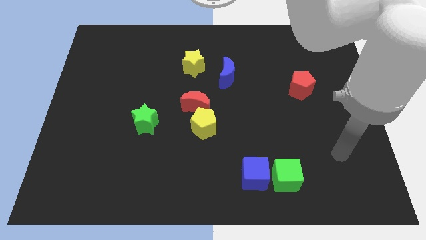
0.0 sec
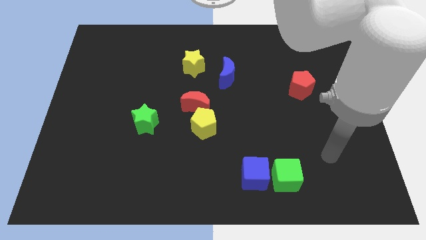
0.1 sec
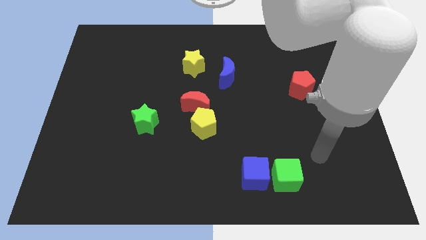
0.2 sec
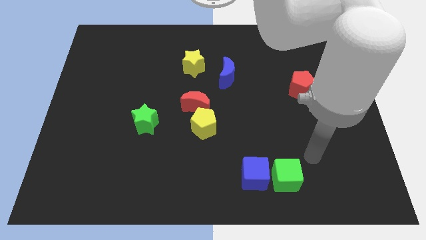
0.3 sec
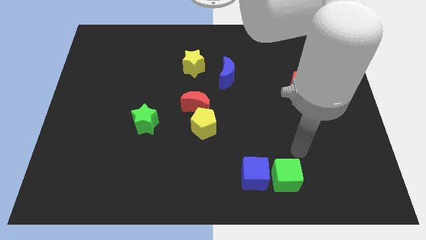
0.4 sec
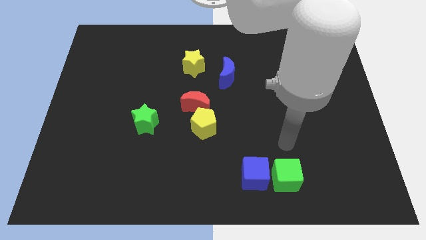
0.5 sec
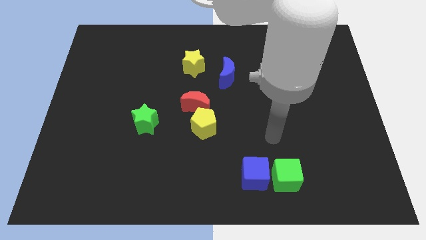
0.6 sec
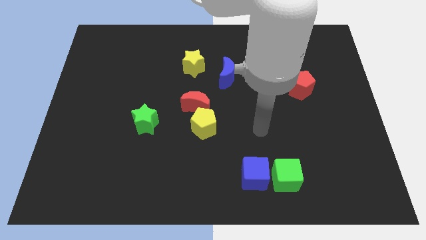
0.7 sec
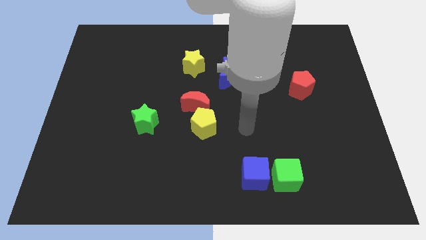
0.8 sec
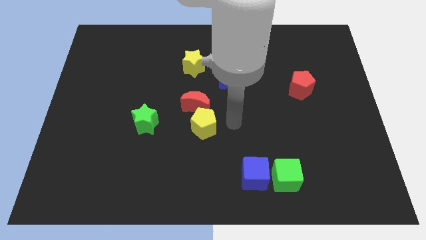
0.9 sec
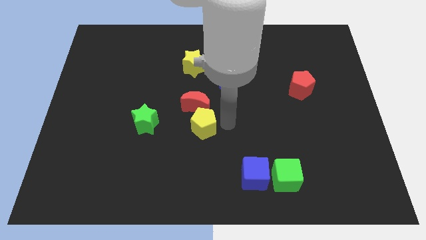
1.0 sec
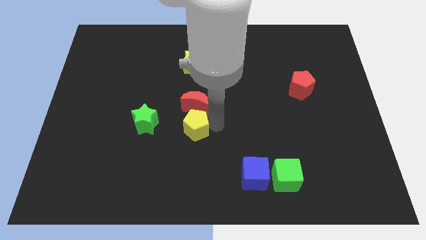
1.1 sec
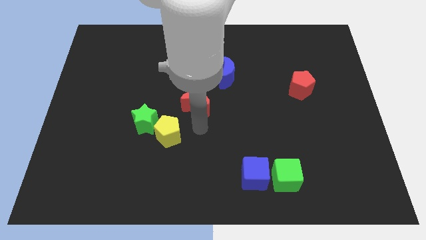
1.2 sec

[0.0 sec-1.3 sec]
pull the red moon apart from the yellow pentagon

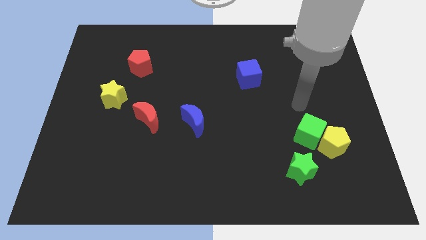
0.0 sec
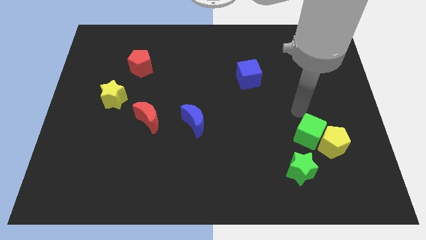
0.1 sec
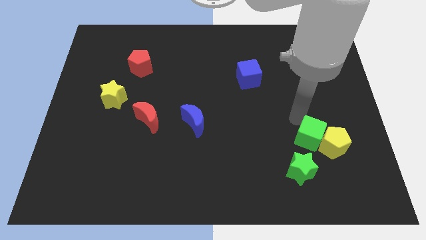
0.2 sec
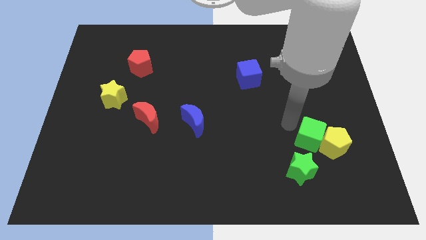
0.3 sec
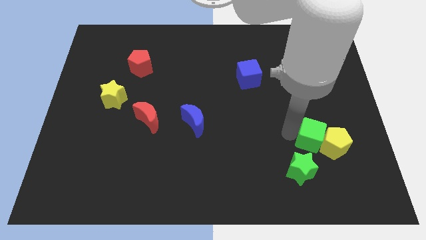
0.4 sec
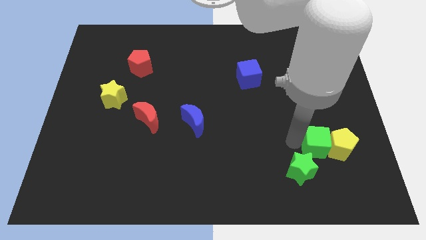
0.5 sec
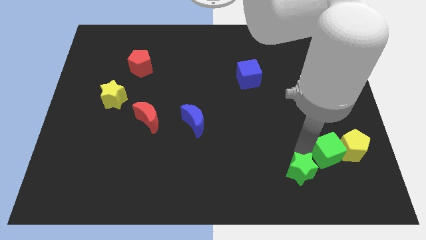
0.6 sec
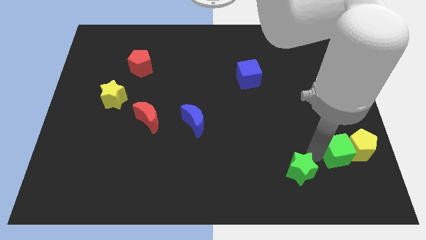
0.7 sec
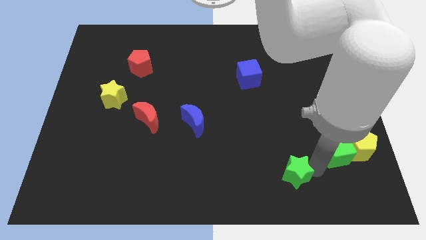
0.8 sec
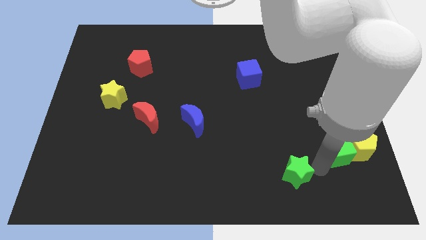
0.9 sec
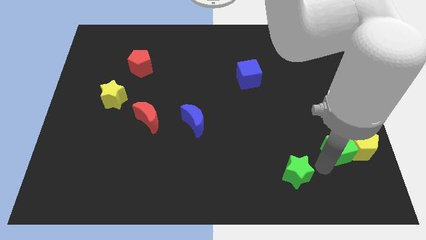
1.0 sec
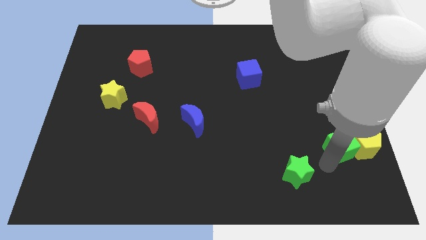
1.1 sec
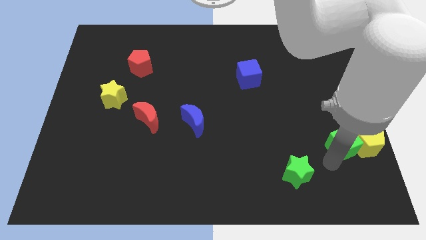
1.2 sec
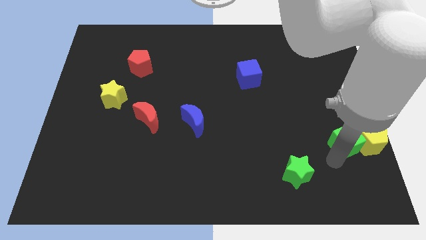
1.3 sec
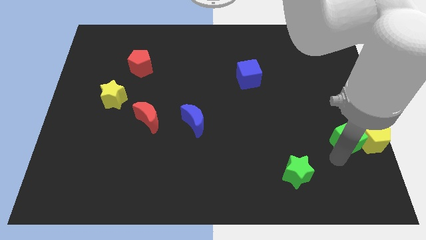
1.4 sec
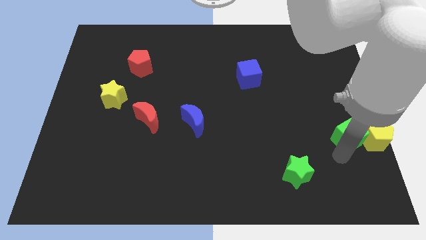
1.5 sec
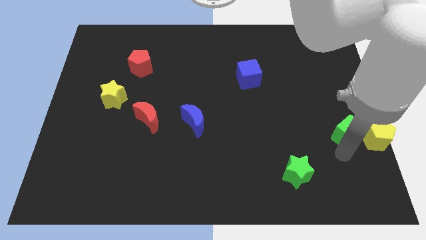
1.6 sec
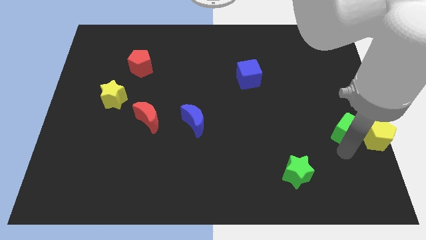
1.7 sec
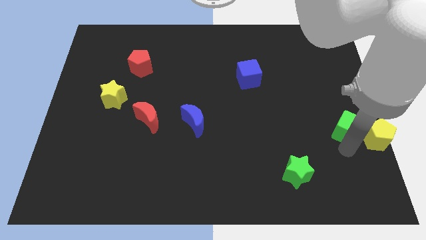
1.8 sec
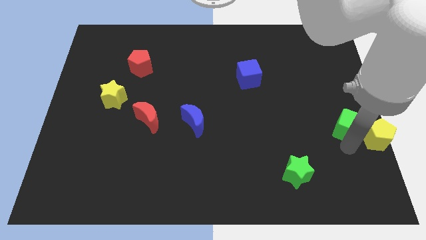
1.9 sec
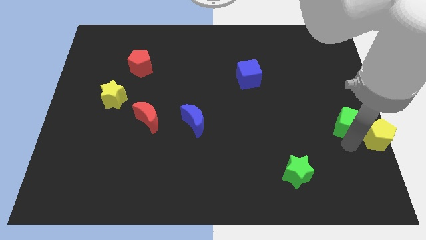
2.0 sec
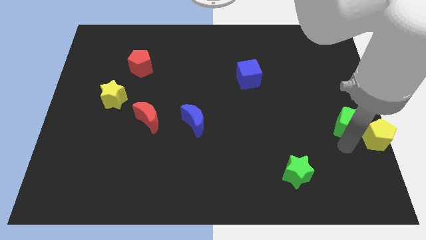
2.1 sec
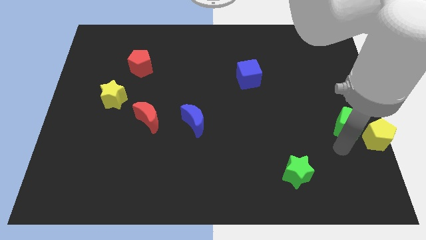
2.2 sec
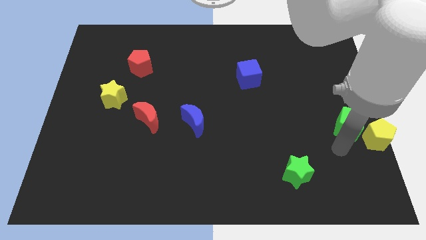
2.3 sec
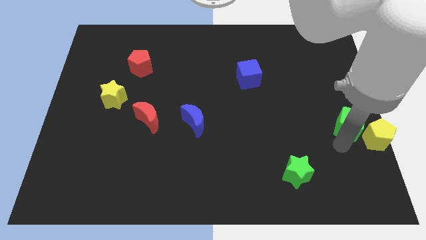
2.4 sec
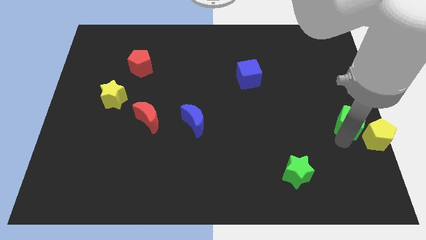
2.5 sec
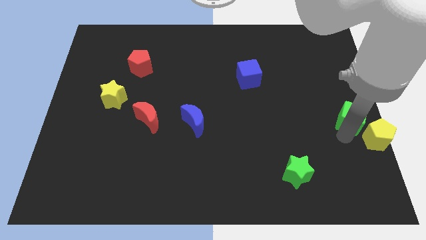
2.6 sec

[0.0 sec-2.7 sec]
move the green cube away from the yellow pentagon and green star

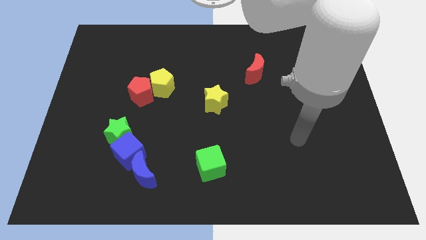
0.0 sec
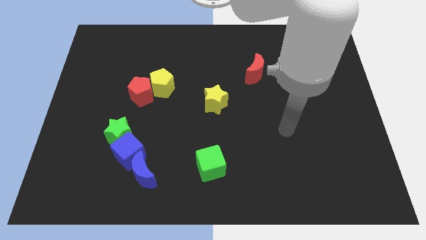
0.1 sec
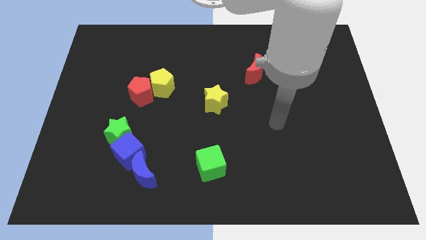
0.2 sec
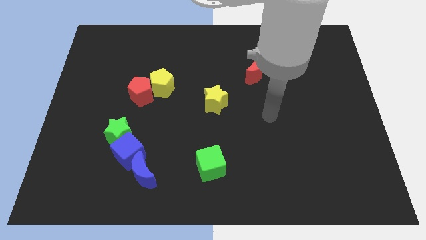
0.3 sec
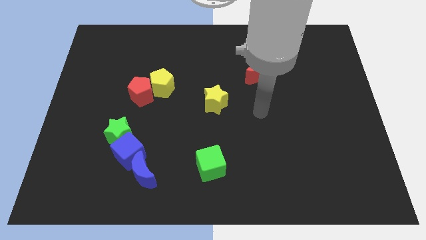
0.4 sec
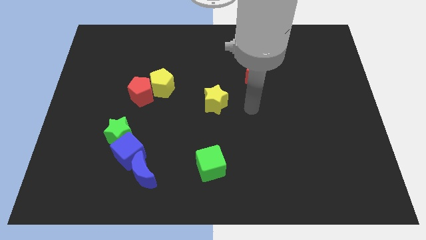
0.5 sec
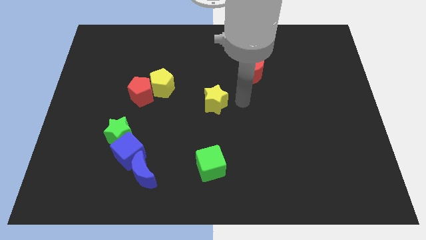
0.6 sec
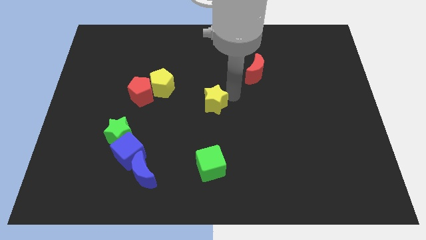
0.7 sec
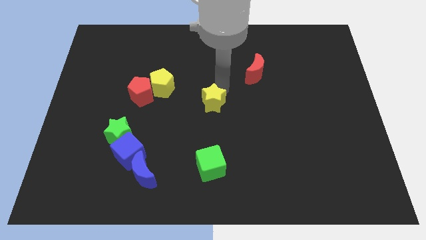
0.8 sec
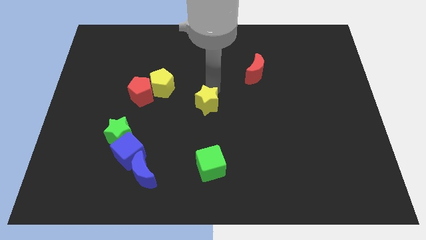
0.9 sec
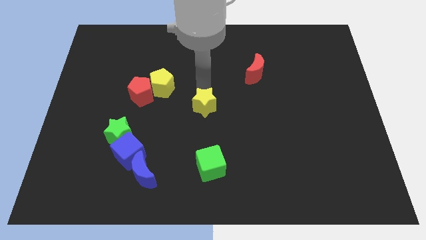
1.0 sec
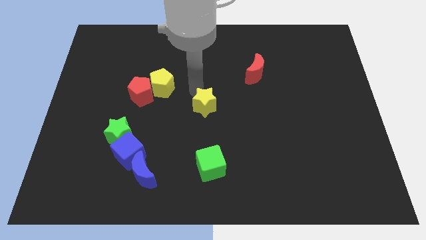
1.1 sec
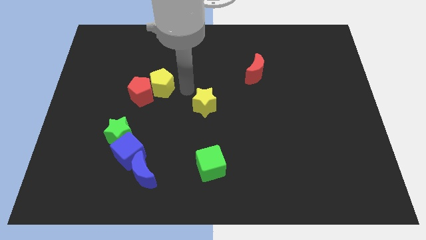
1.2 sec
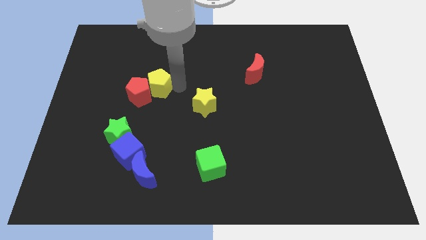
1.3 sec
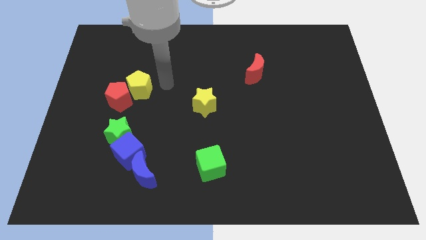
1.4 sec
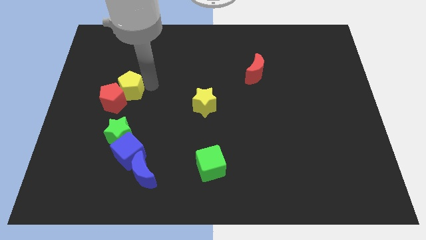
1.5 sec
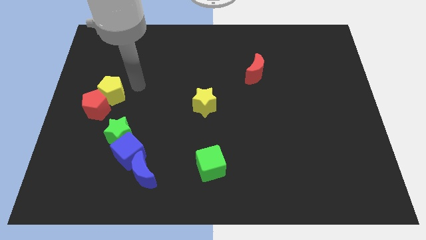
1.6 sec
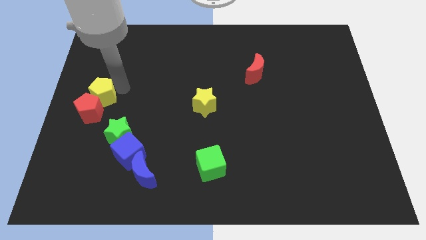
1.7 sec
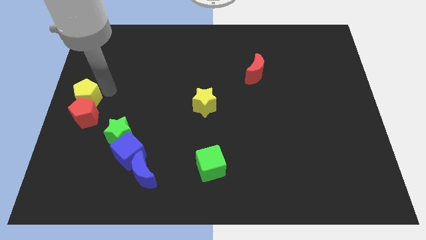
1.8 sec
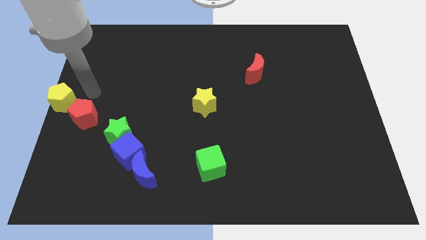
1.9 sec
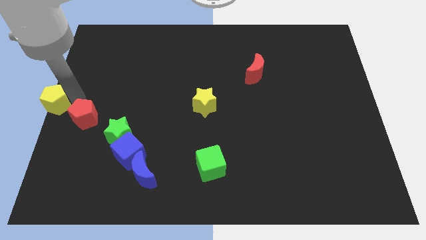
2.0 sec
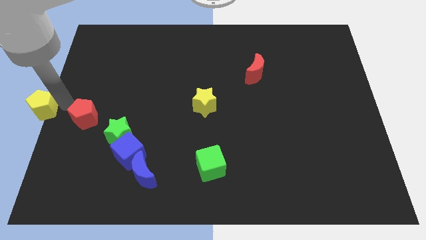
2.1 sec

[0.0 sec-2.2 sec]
separate the red pentagon from the yellow pentagon

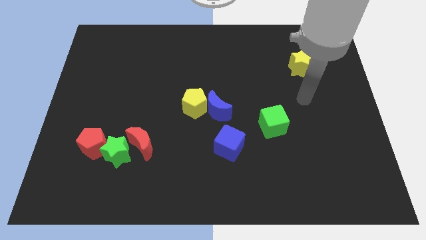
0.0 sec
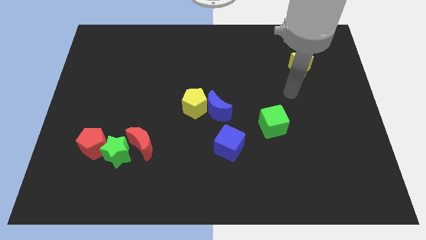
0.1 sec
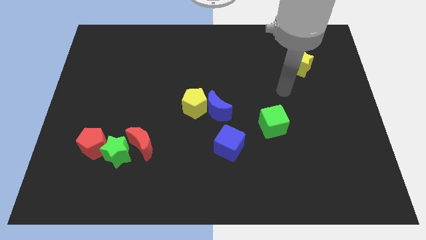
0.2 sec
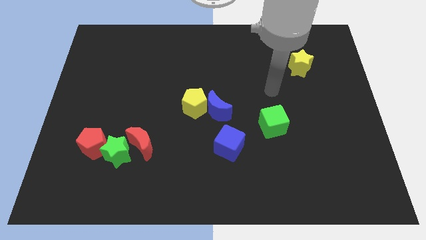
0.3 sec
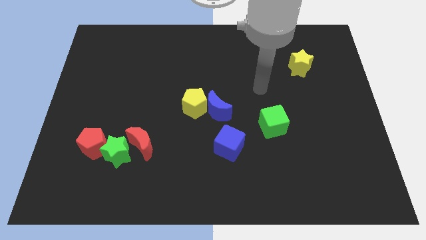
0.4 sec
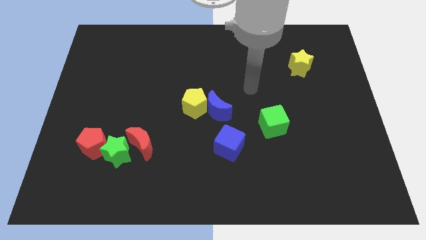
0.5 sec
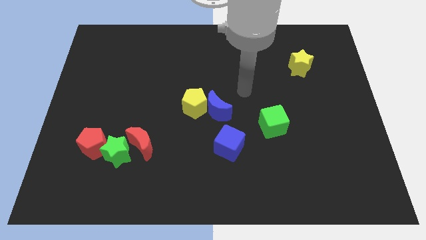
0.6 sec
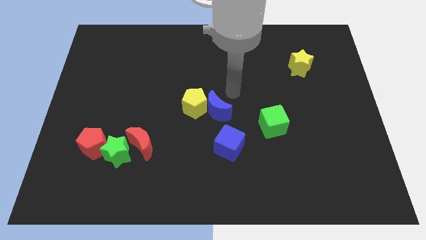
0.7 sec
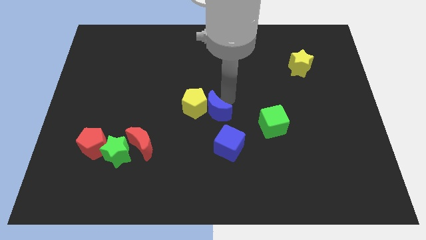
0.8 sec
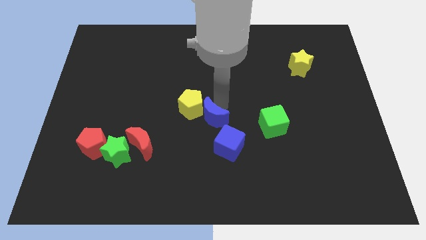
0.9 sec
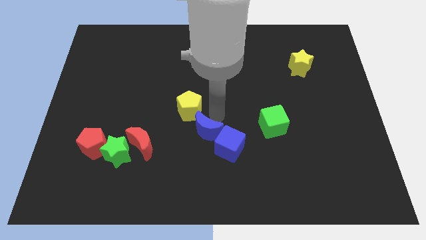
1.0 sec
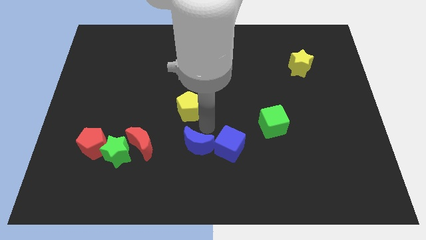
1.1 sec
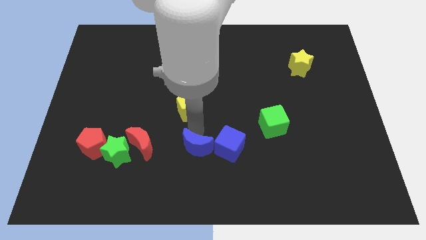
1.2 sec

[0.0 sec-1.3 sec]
separate the yellow pentagon from the blue moon

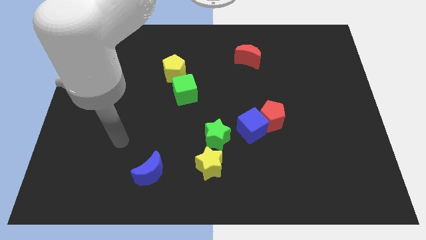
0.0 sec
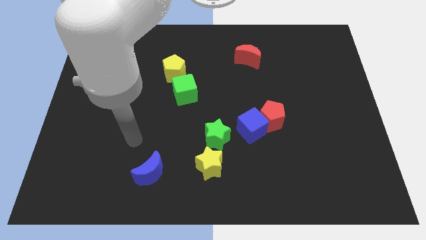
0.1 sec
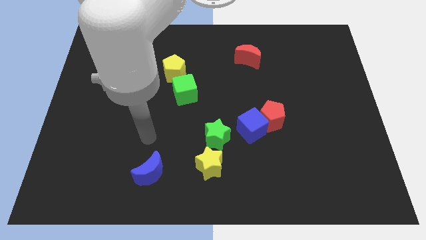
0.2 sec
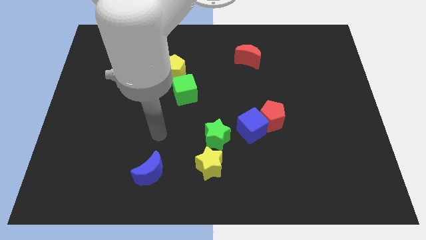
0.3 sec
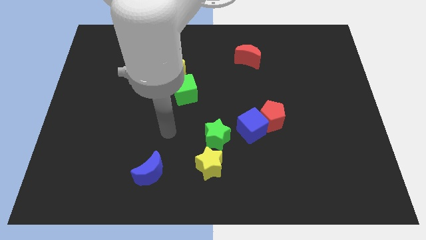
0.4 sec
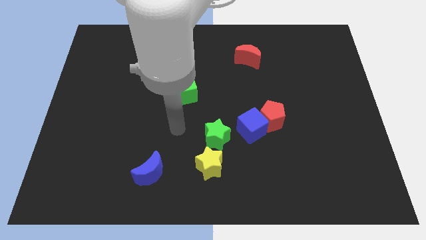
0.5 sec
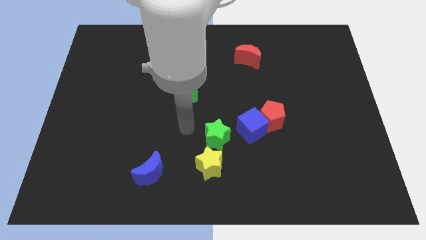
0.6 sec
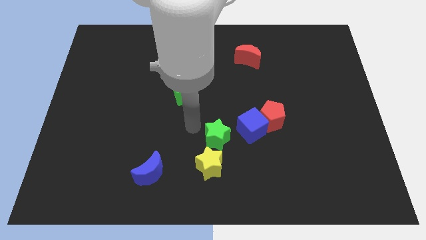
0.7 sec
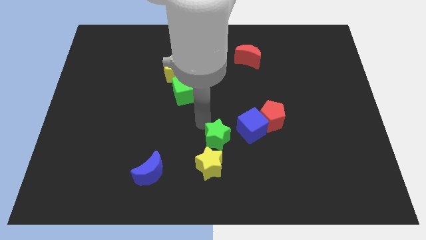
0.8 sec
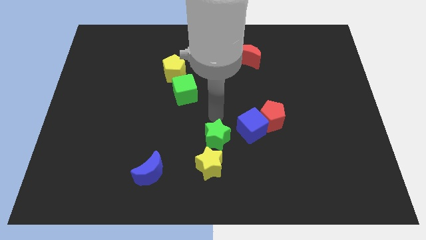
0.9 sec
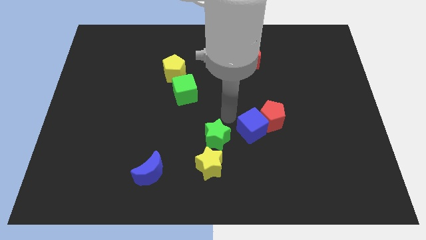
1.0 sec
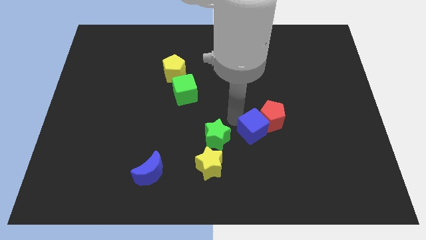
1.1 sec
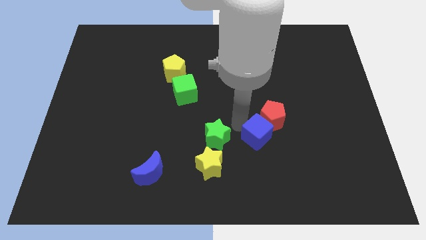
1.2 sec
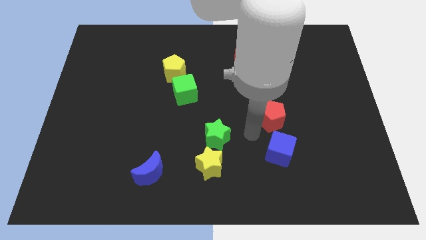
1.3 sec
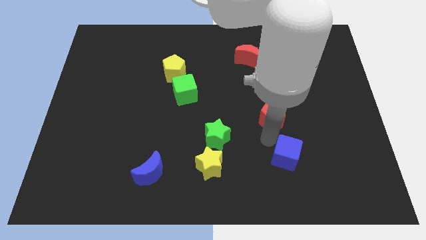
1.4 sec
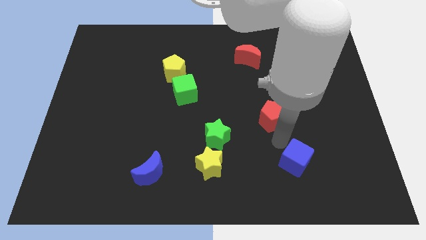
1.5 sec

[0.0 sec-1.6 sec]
pull the red pentagon apart from the blue cube

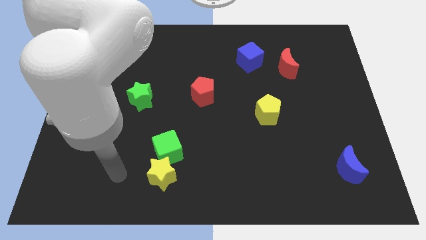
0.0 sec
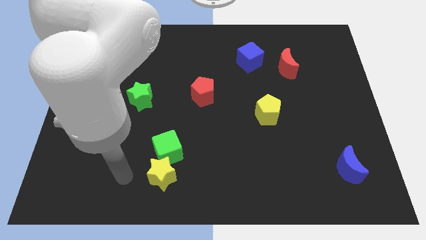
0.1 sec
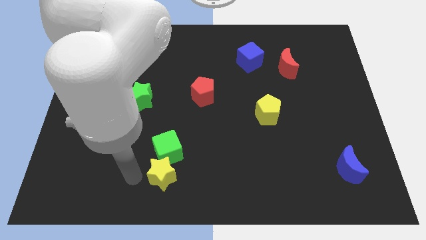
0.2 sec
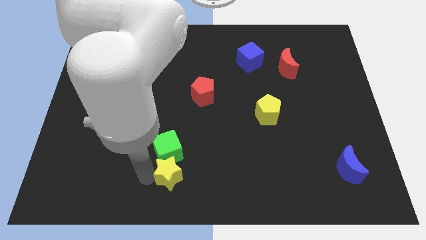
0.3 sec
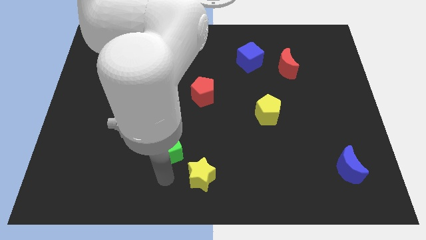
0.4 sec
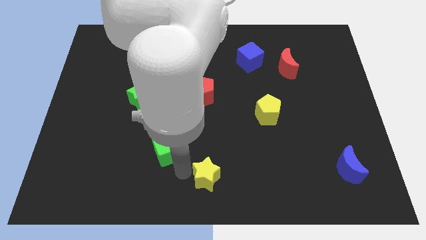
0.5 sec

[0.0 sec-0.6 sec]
pull the green cube apart from the yellow star
